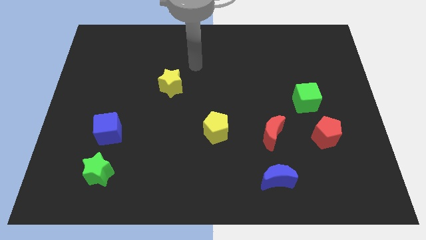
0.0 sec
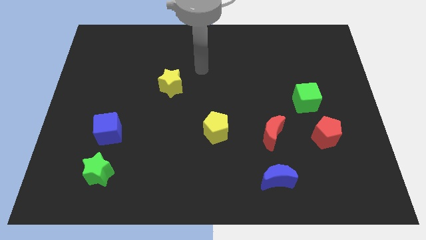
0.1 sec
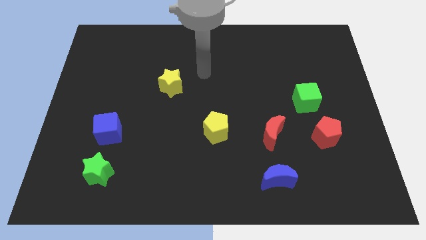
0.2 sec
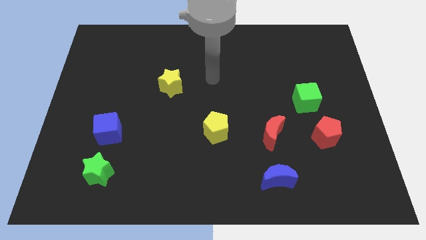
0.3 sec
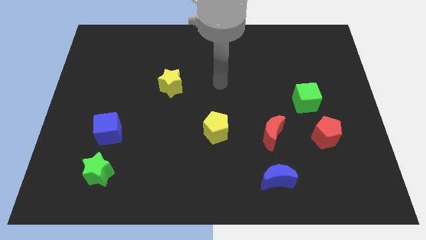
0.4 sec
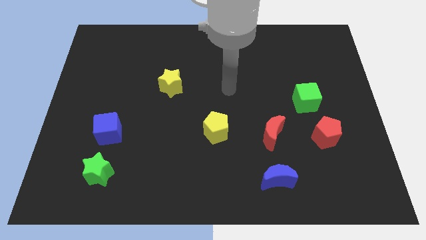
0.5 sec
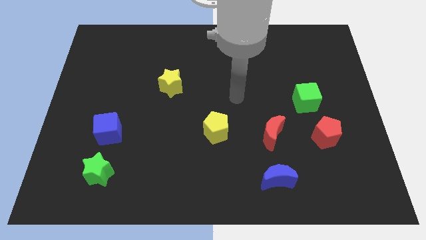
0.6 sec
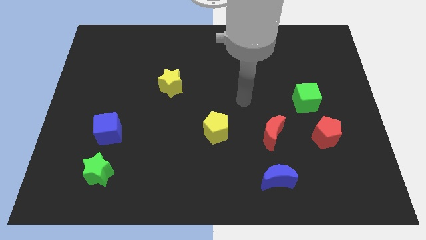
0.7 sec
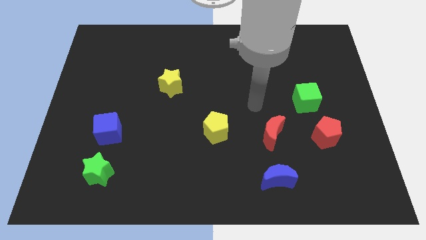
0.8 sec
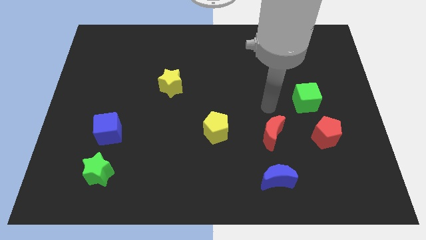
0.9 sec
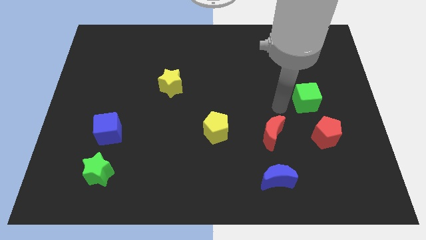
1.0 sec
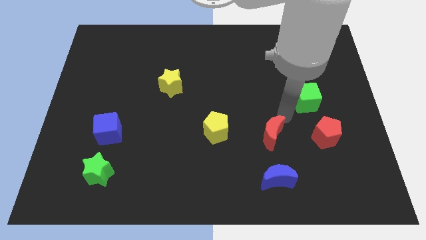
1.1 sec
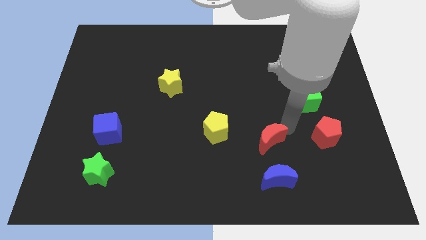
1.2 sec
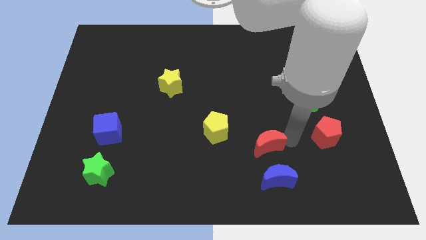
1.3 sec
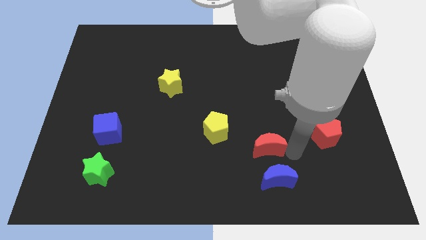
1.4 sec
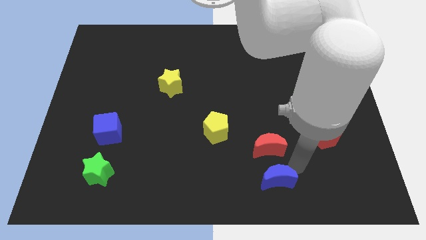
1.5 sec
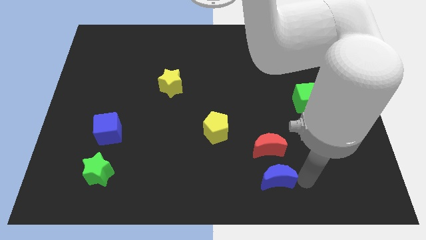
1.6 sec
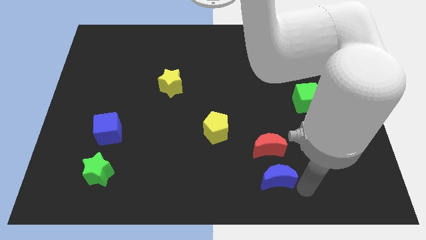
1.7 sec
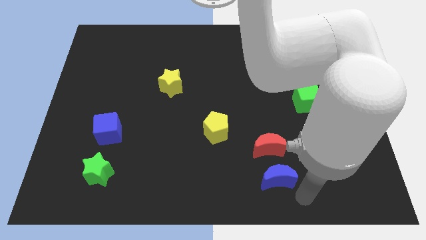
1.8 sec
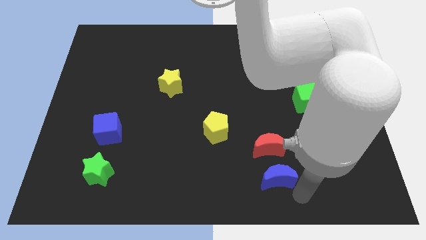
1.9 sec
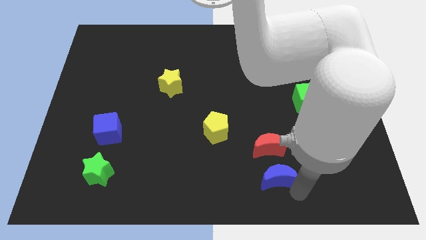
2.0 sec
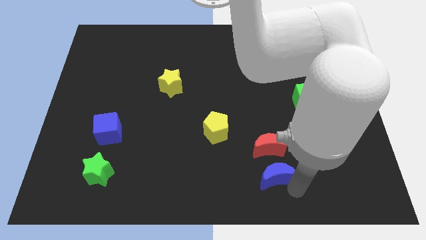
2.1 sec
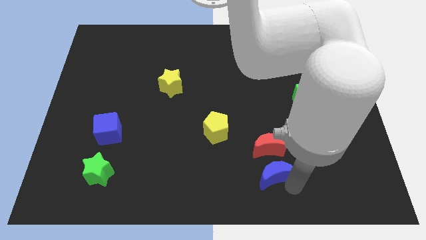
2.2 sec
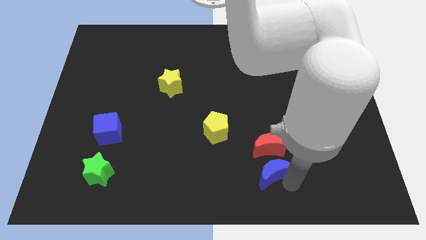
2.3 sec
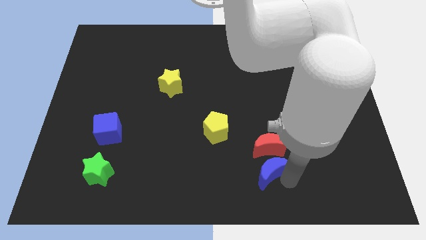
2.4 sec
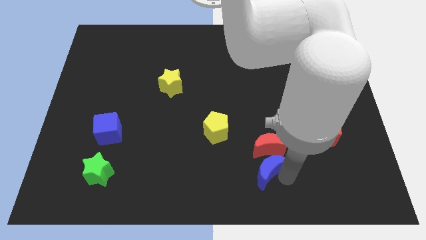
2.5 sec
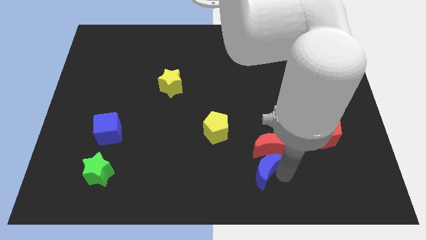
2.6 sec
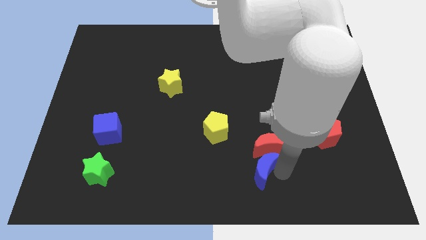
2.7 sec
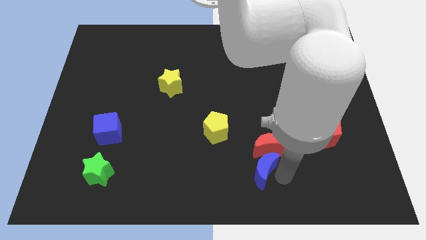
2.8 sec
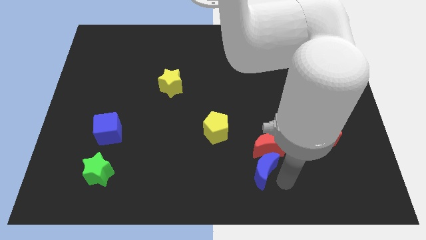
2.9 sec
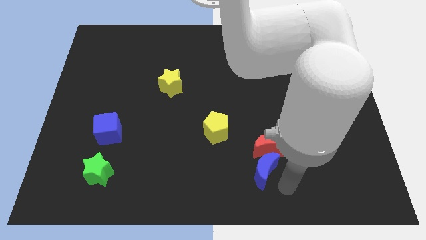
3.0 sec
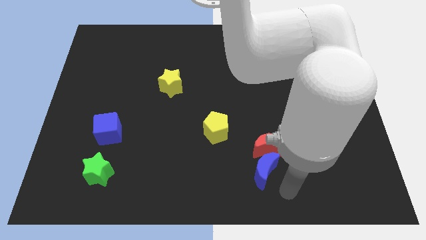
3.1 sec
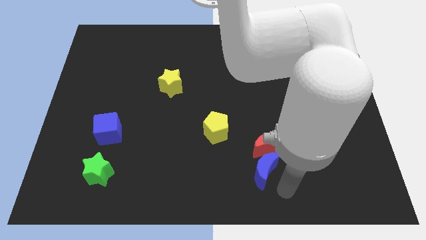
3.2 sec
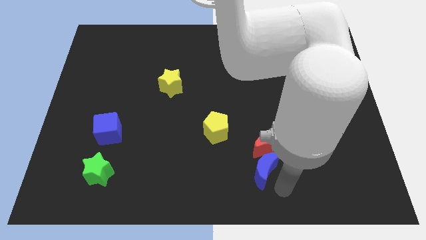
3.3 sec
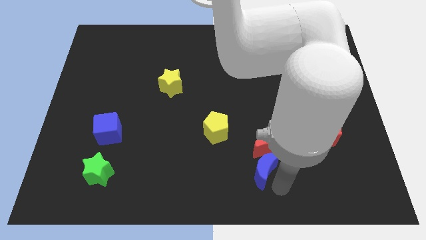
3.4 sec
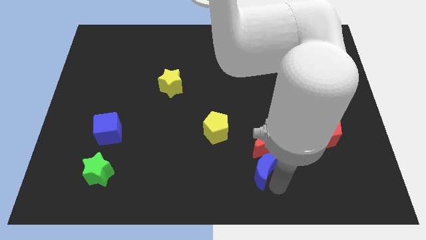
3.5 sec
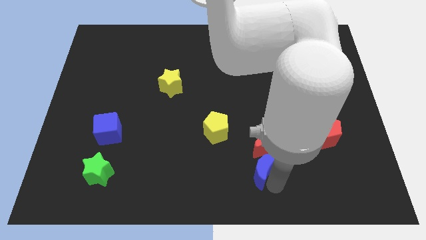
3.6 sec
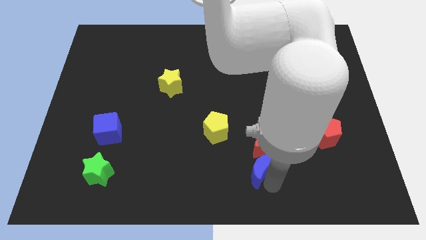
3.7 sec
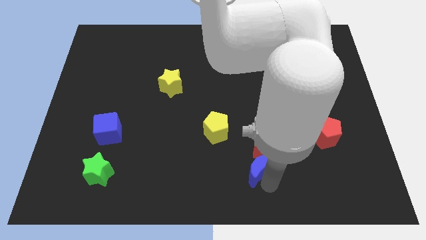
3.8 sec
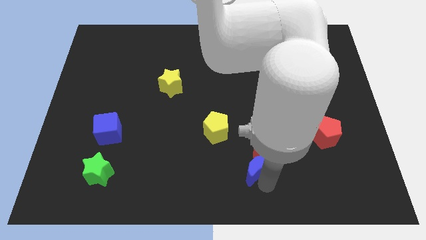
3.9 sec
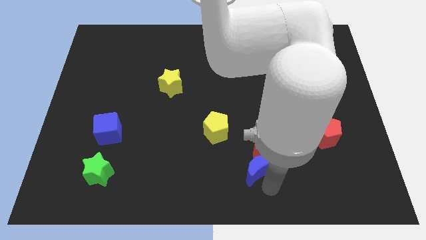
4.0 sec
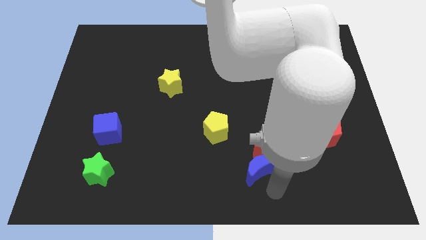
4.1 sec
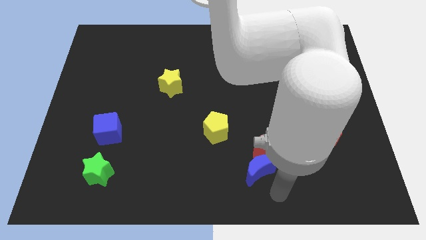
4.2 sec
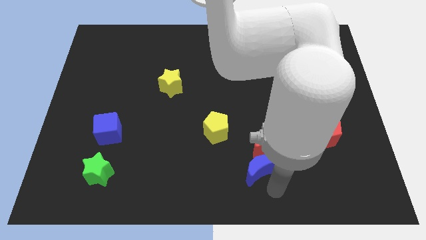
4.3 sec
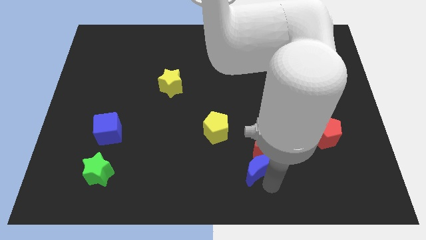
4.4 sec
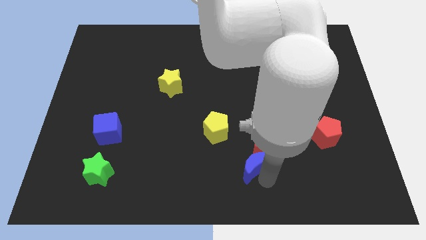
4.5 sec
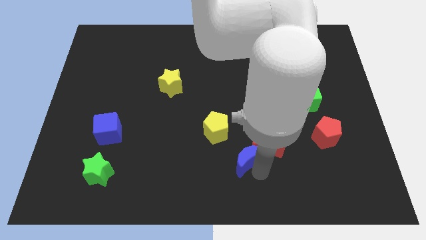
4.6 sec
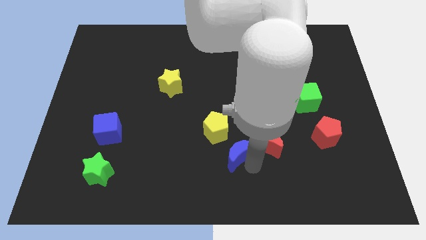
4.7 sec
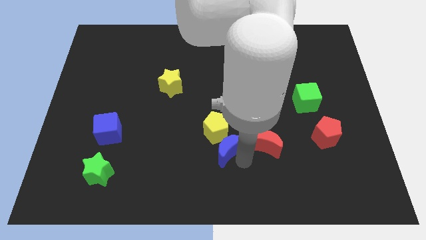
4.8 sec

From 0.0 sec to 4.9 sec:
put the blue moon close to the yellow pentagon

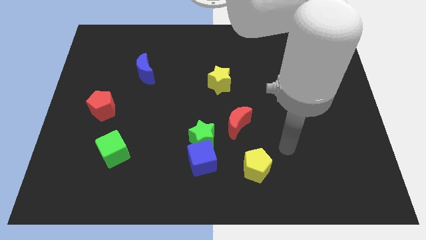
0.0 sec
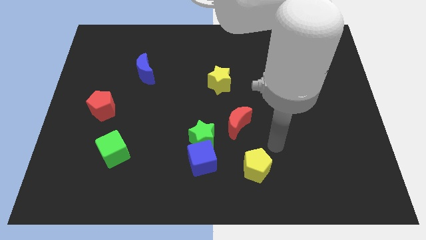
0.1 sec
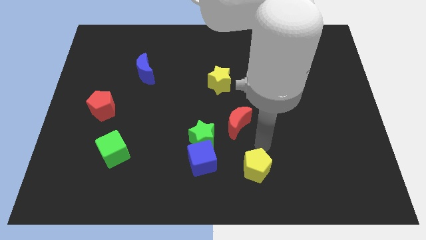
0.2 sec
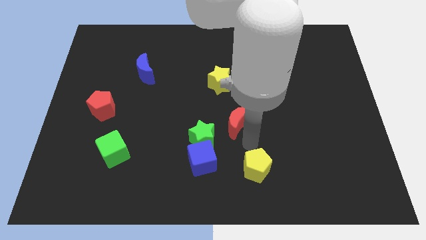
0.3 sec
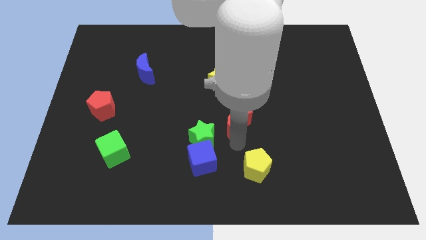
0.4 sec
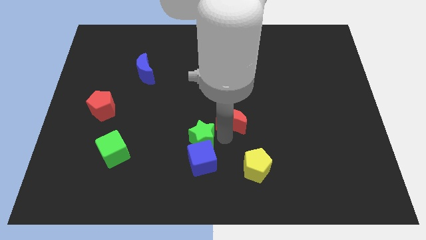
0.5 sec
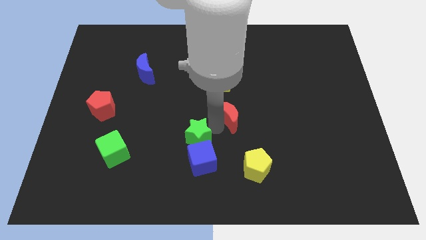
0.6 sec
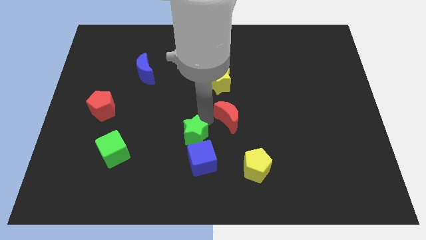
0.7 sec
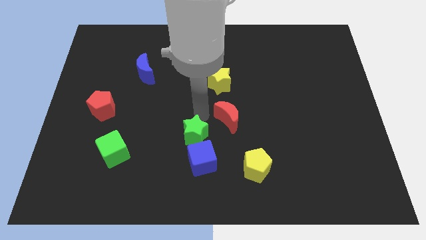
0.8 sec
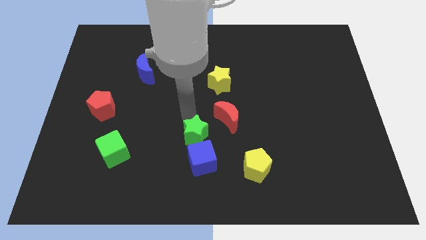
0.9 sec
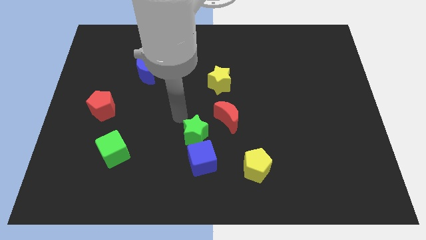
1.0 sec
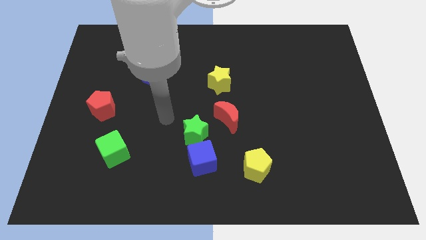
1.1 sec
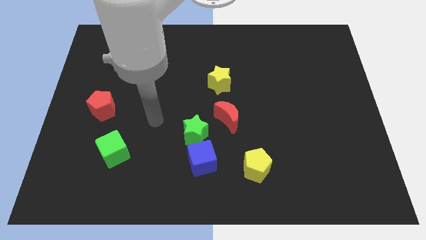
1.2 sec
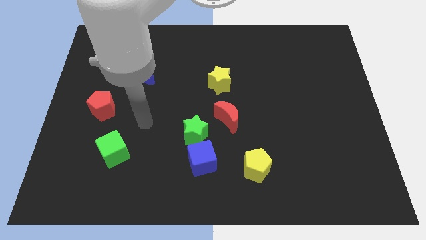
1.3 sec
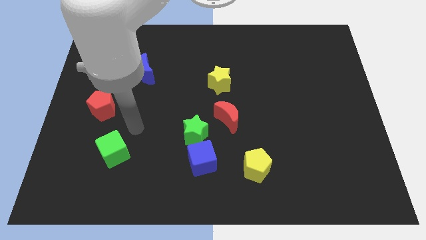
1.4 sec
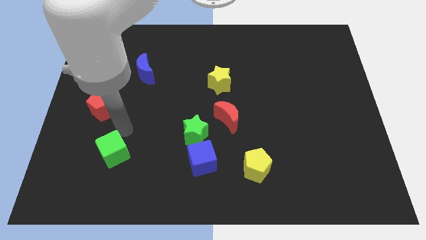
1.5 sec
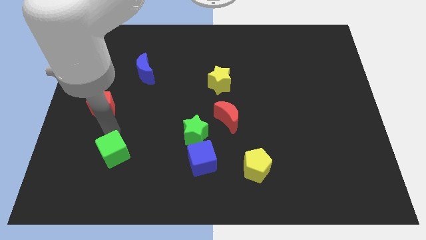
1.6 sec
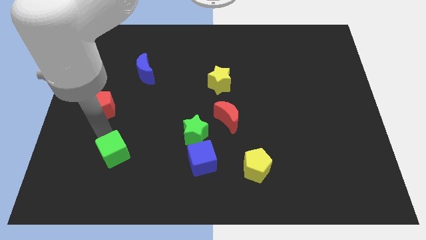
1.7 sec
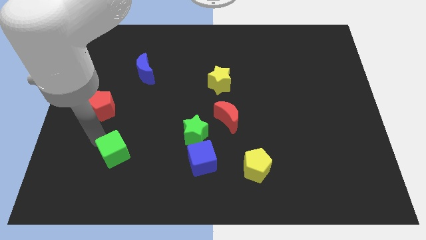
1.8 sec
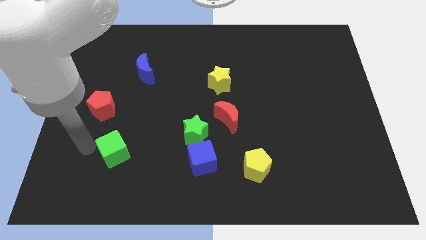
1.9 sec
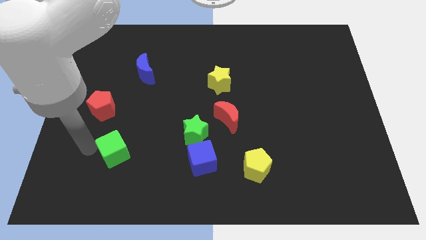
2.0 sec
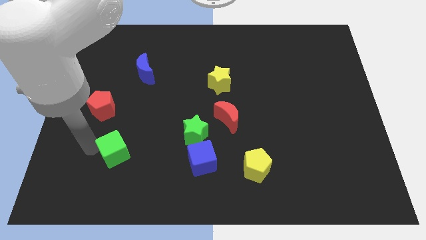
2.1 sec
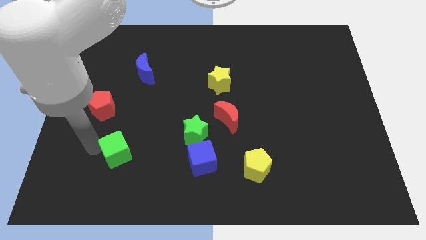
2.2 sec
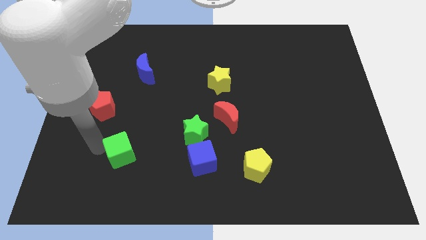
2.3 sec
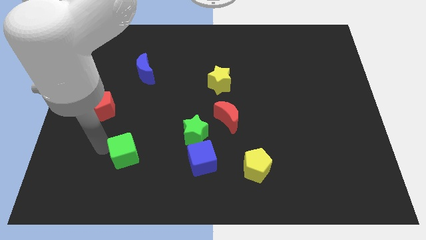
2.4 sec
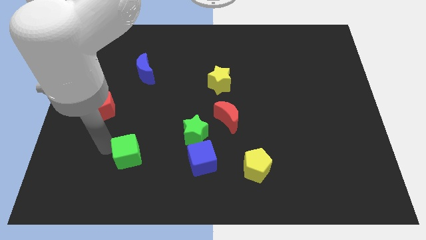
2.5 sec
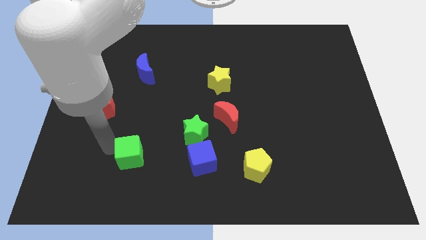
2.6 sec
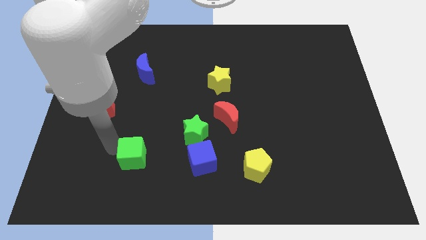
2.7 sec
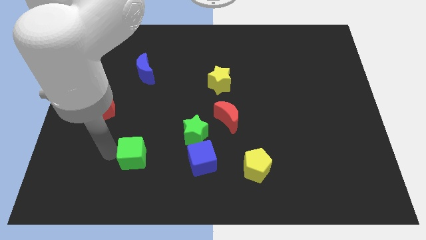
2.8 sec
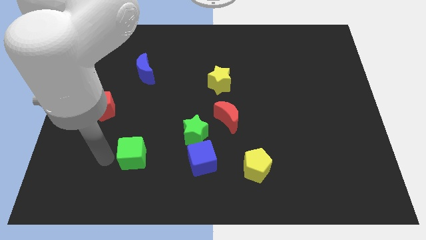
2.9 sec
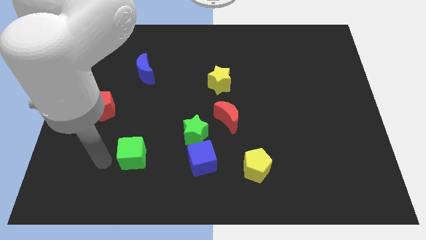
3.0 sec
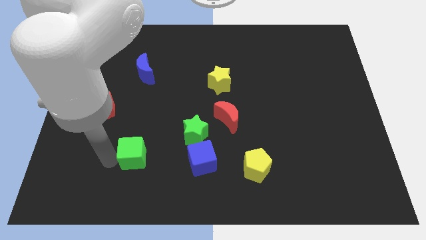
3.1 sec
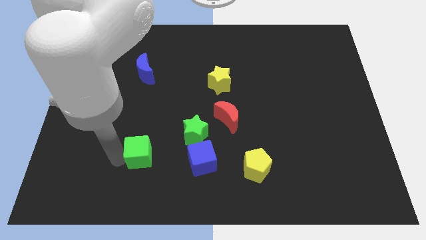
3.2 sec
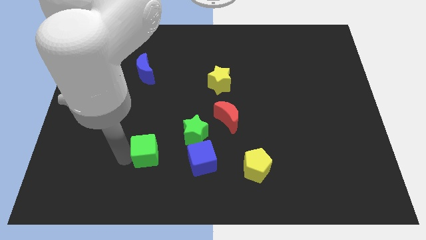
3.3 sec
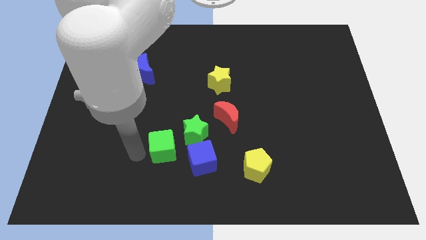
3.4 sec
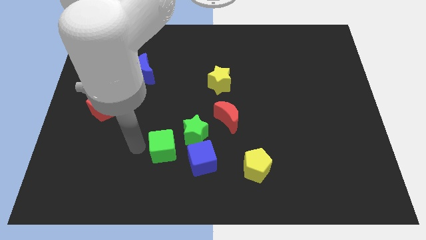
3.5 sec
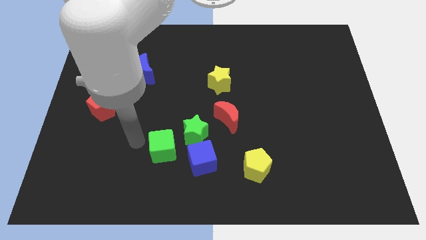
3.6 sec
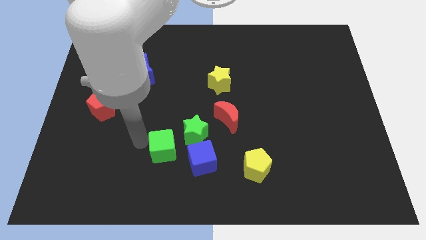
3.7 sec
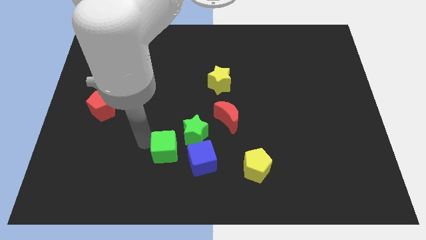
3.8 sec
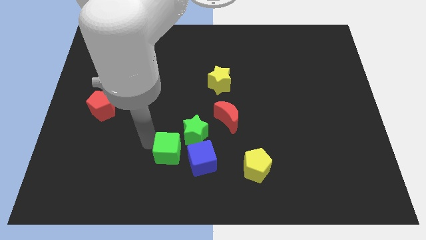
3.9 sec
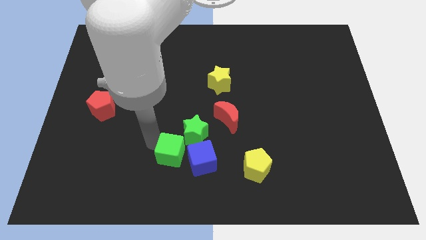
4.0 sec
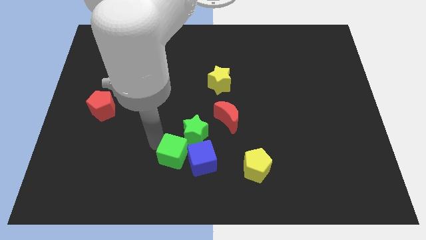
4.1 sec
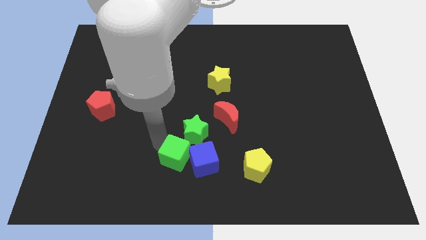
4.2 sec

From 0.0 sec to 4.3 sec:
push the green cube towards the blue cube
